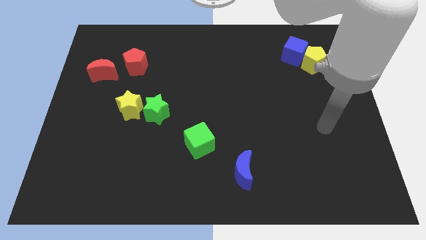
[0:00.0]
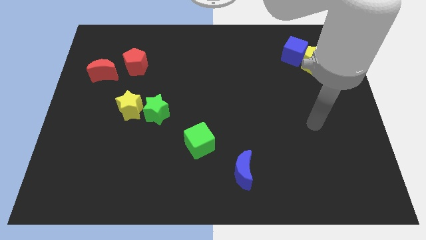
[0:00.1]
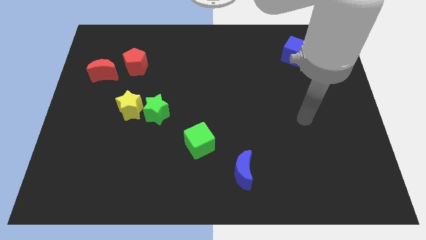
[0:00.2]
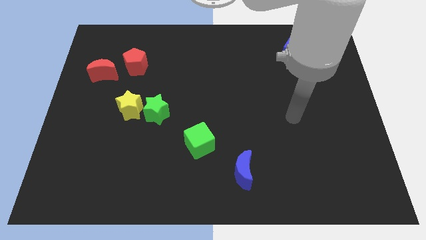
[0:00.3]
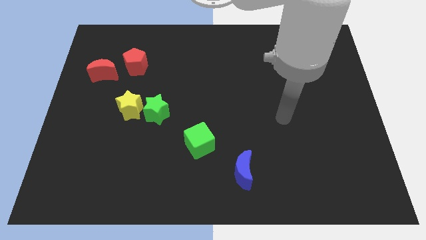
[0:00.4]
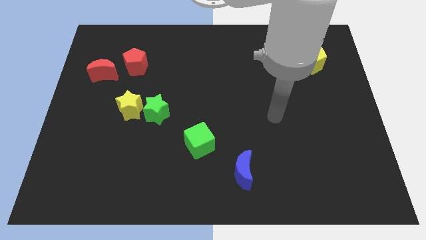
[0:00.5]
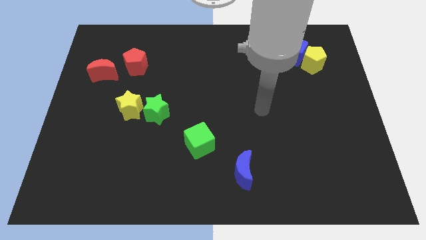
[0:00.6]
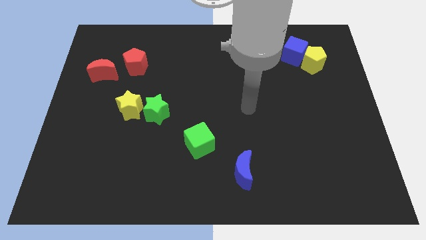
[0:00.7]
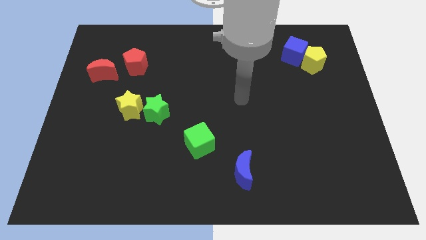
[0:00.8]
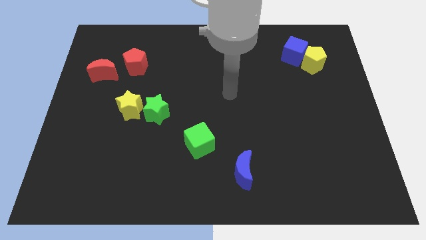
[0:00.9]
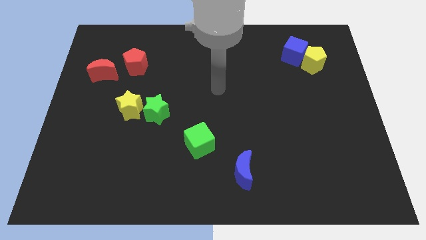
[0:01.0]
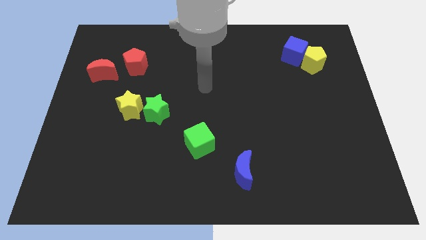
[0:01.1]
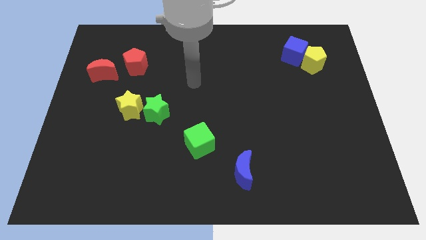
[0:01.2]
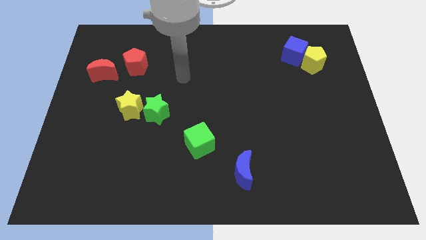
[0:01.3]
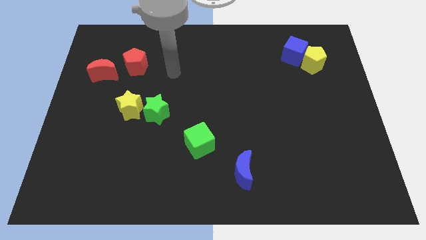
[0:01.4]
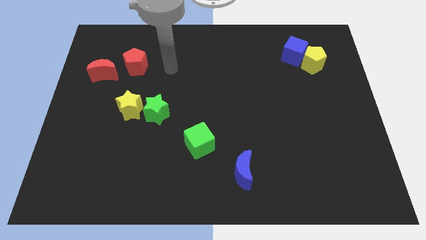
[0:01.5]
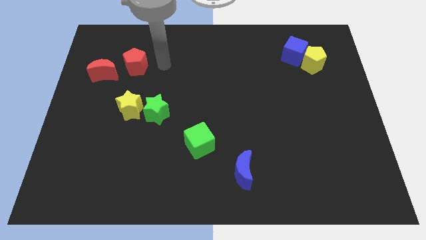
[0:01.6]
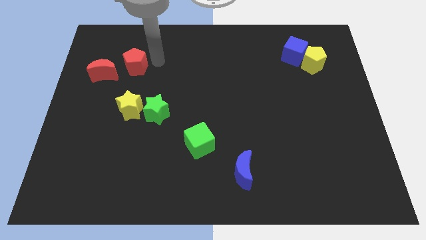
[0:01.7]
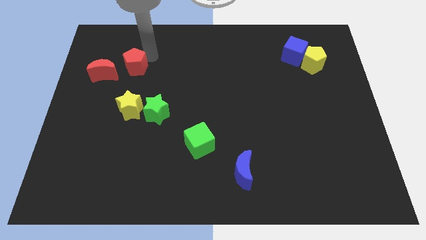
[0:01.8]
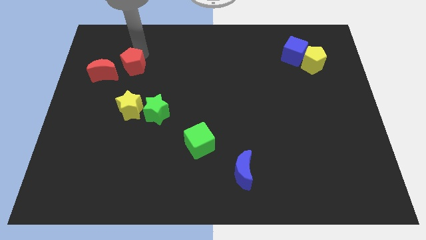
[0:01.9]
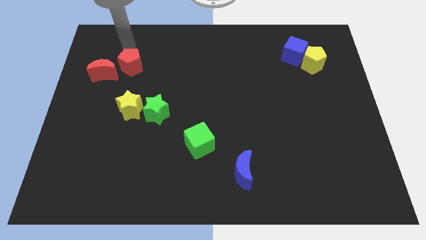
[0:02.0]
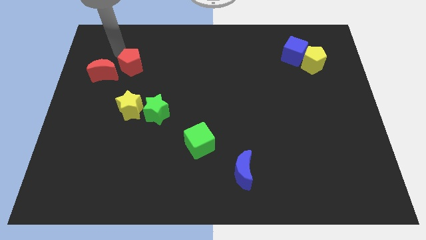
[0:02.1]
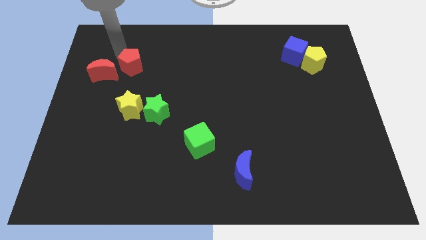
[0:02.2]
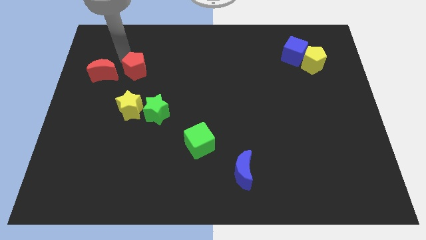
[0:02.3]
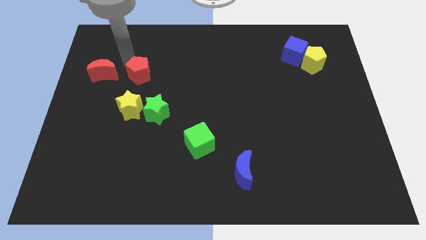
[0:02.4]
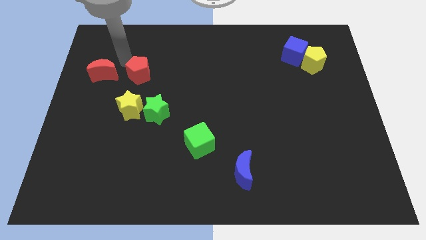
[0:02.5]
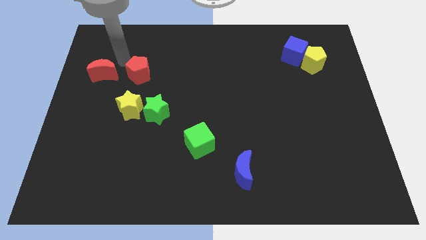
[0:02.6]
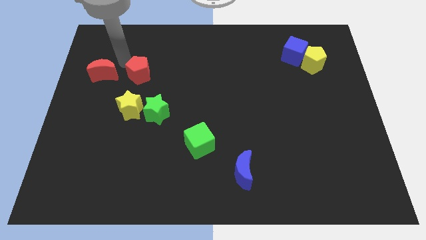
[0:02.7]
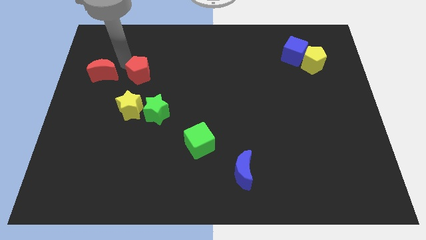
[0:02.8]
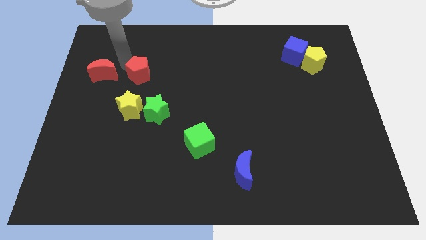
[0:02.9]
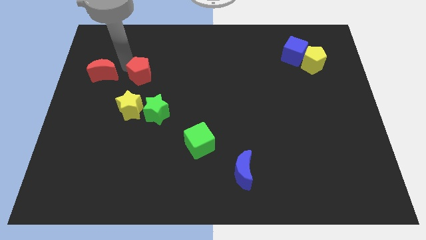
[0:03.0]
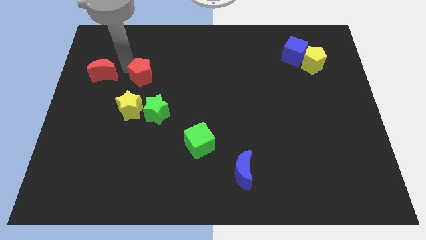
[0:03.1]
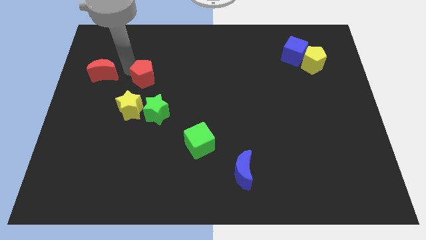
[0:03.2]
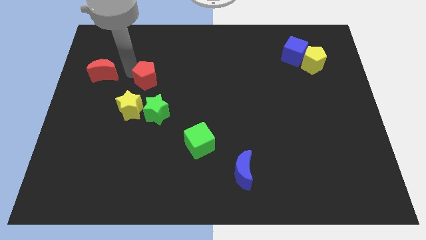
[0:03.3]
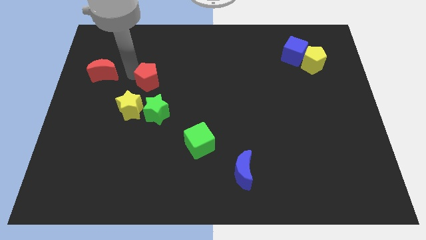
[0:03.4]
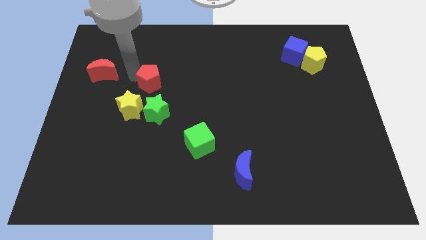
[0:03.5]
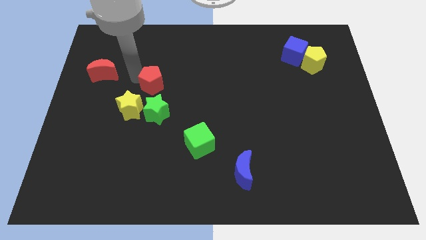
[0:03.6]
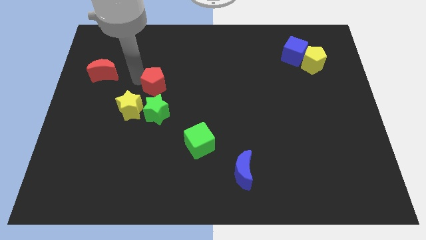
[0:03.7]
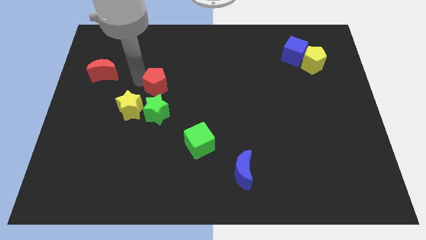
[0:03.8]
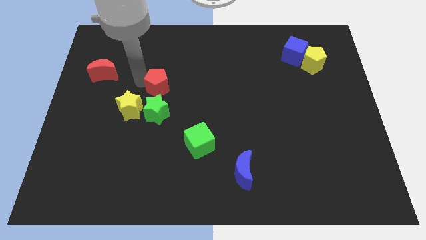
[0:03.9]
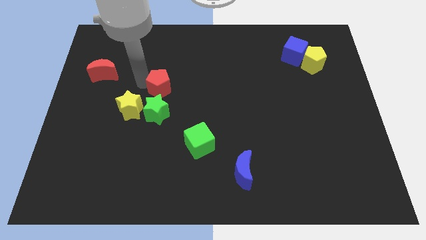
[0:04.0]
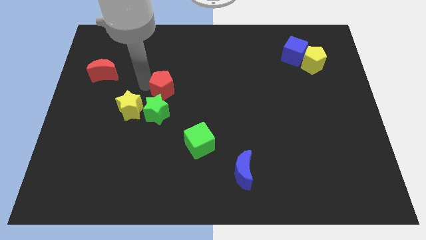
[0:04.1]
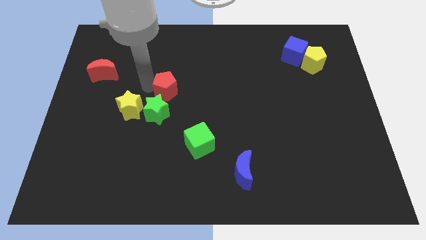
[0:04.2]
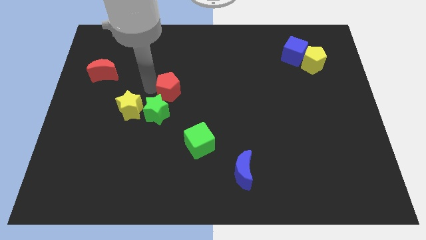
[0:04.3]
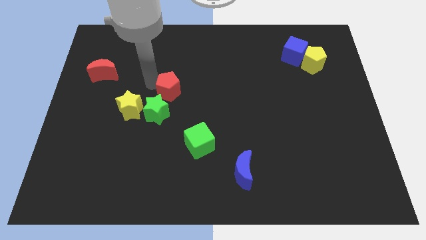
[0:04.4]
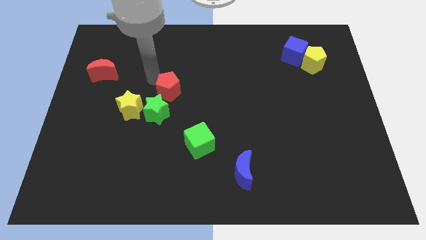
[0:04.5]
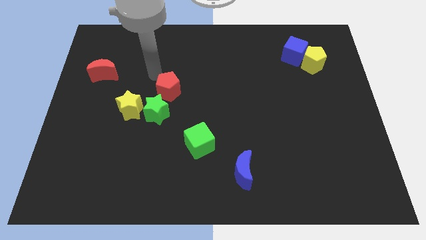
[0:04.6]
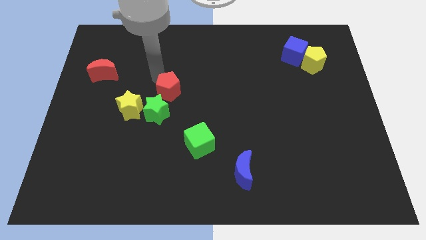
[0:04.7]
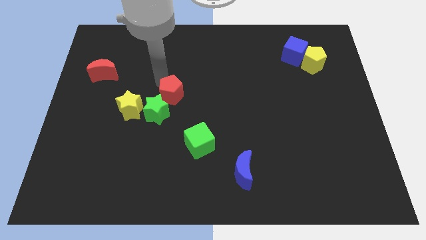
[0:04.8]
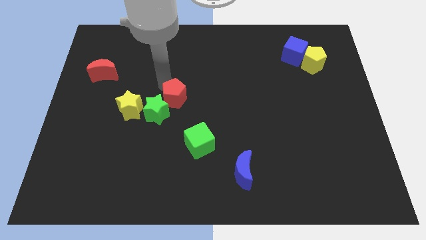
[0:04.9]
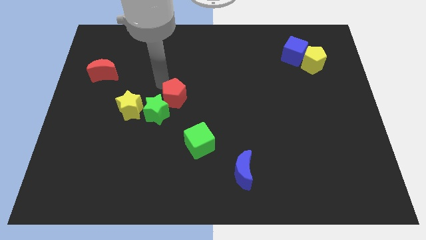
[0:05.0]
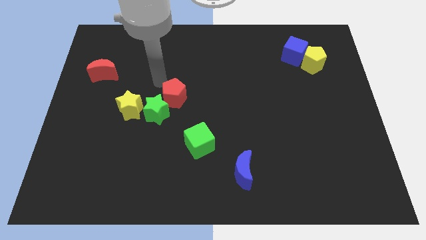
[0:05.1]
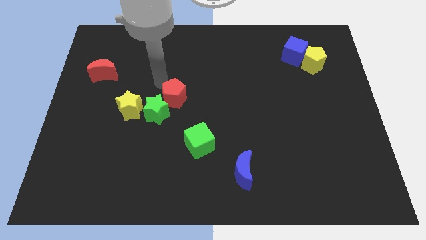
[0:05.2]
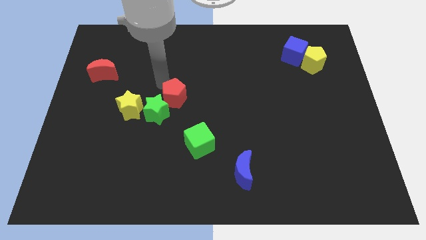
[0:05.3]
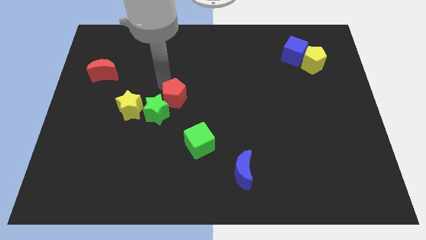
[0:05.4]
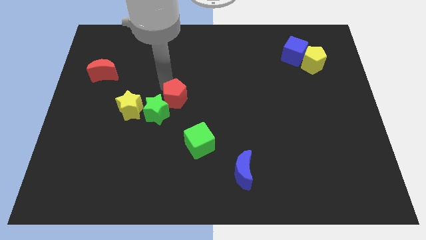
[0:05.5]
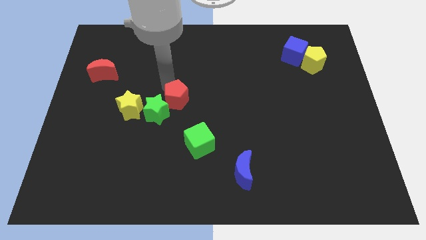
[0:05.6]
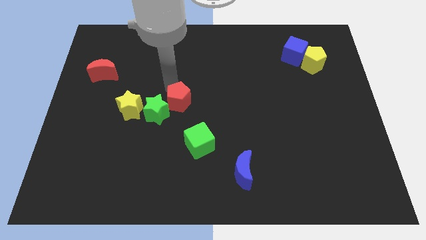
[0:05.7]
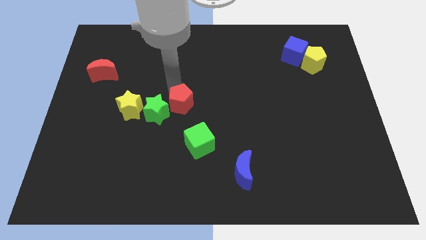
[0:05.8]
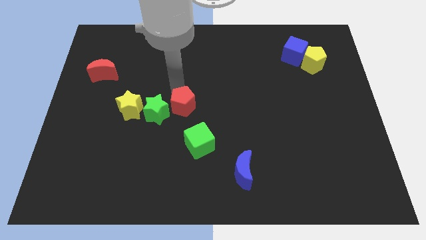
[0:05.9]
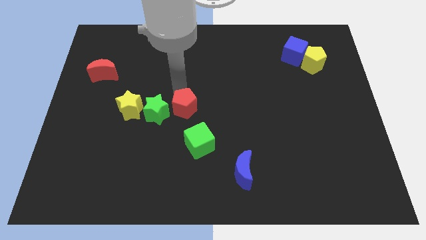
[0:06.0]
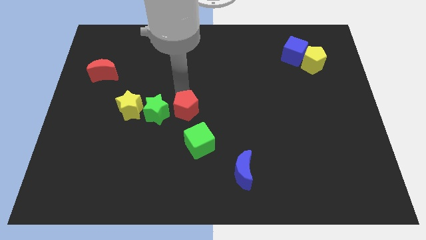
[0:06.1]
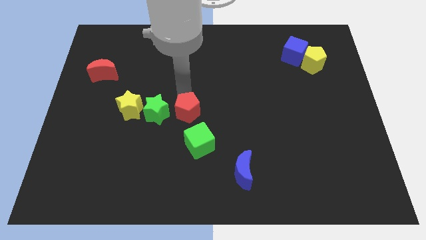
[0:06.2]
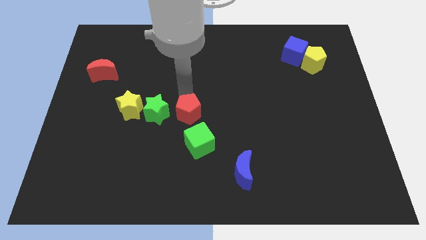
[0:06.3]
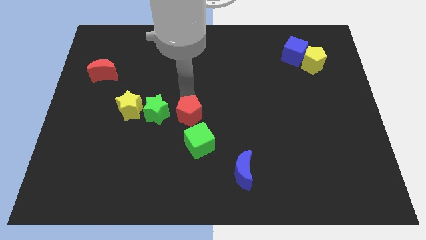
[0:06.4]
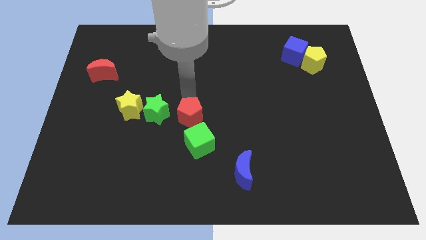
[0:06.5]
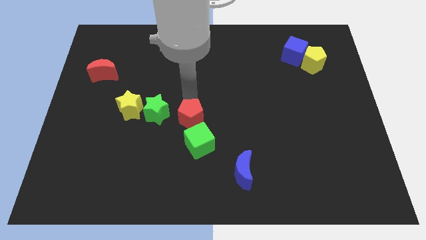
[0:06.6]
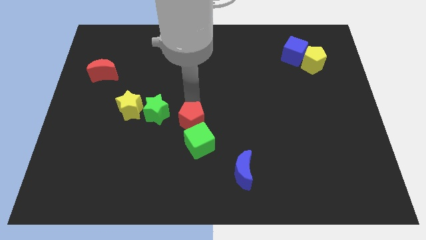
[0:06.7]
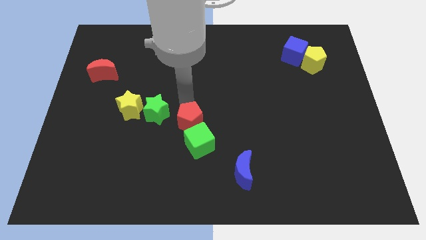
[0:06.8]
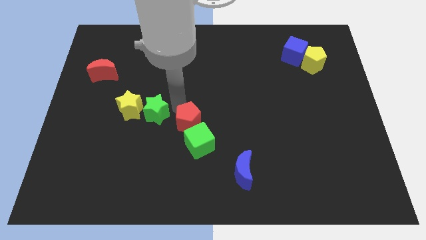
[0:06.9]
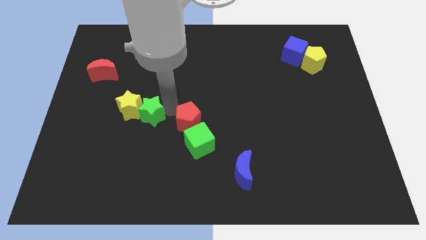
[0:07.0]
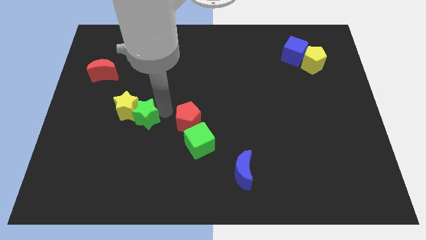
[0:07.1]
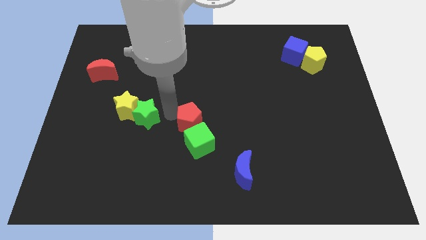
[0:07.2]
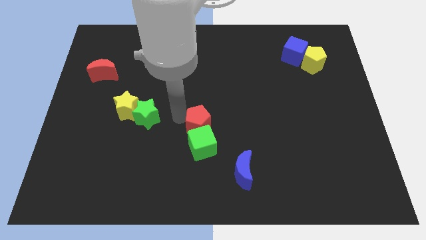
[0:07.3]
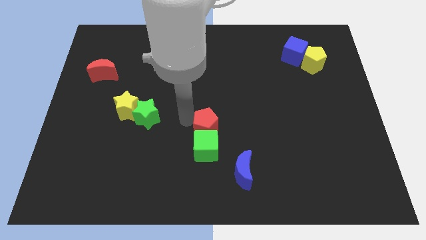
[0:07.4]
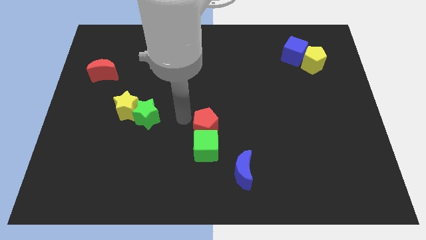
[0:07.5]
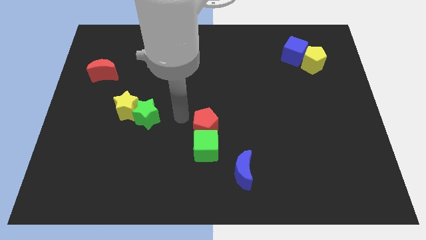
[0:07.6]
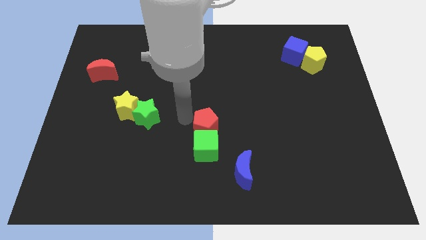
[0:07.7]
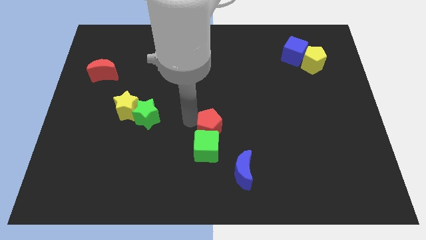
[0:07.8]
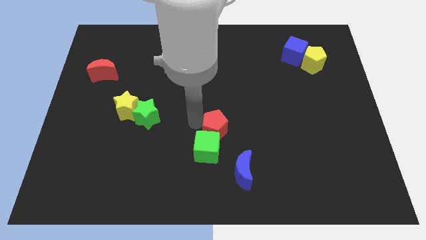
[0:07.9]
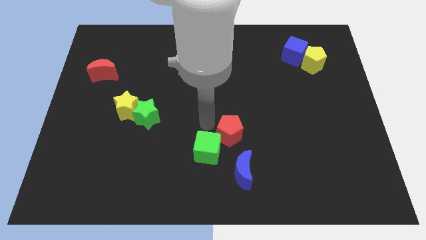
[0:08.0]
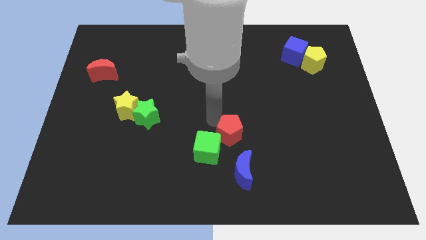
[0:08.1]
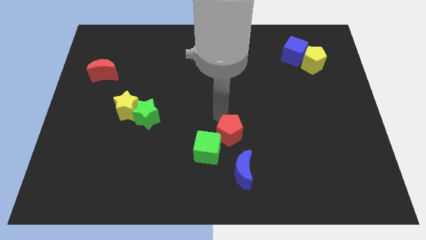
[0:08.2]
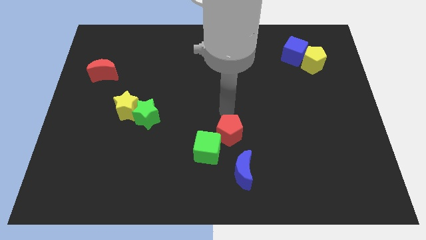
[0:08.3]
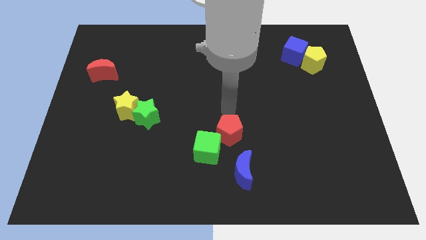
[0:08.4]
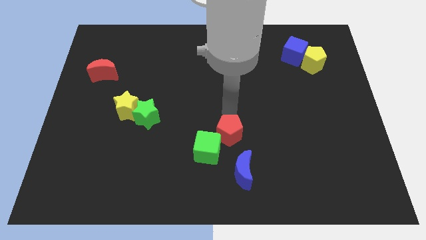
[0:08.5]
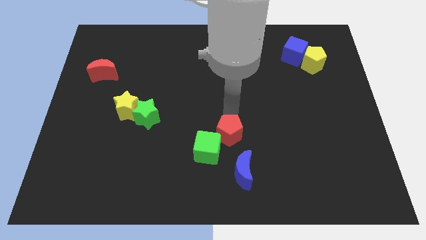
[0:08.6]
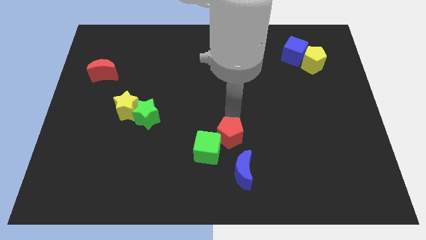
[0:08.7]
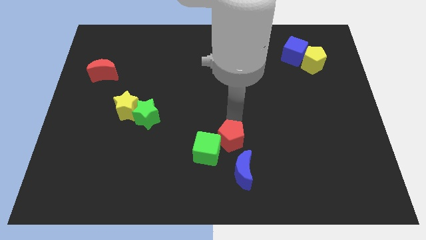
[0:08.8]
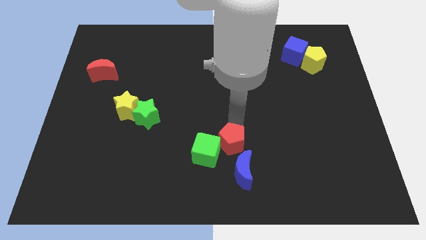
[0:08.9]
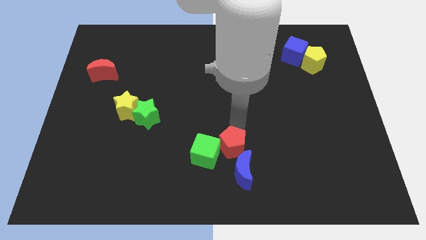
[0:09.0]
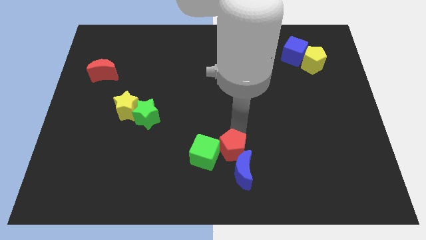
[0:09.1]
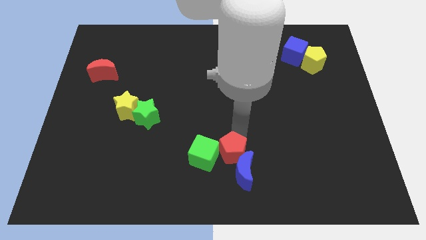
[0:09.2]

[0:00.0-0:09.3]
move the red pentagon to the bottom right side of the green cube
